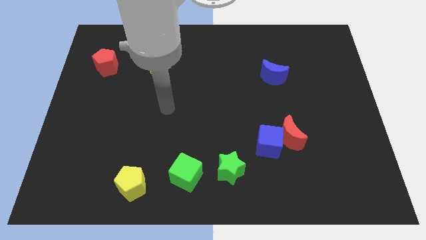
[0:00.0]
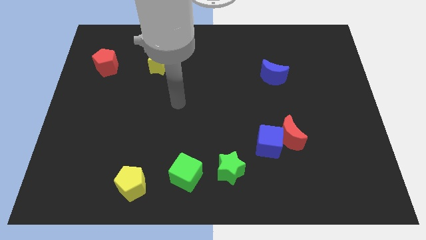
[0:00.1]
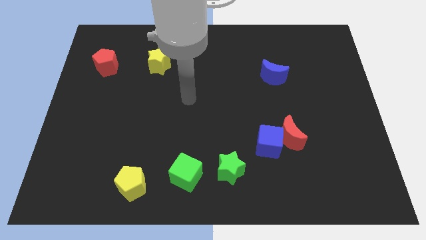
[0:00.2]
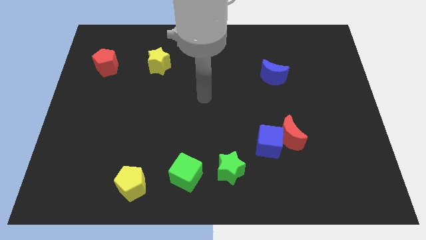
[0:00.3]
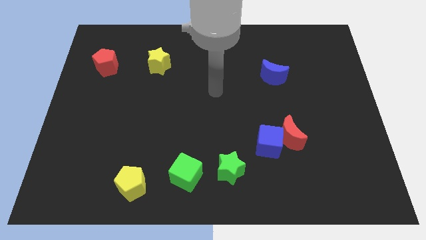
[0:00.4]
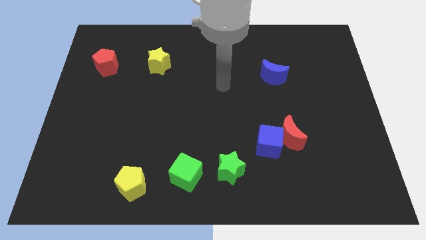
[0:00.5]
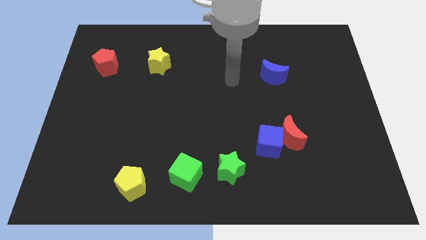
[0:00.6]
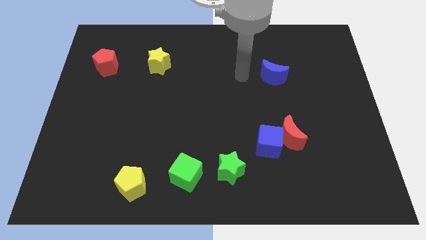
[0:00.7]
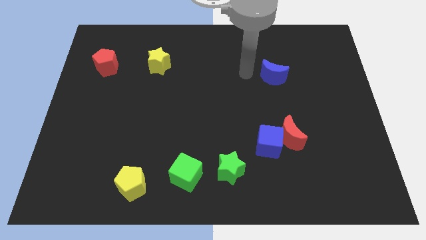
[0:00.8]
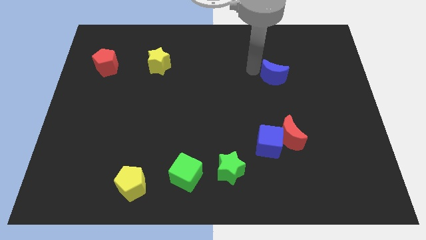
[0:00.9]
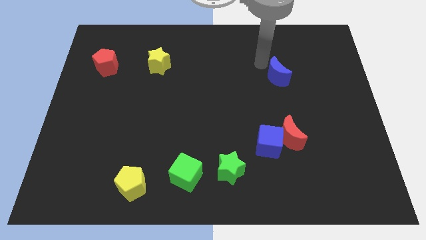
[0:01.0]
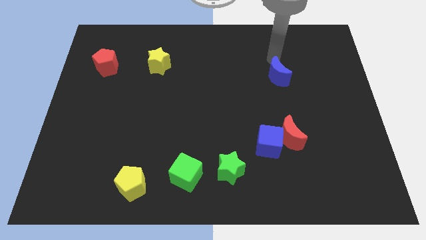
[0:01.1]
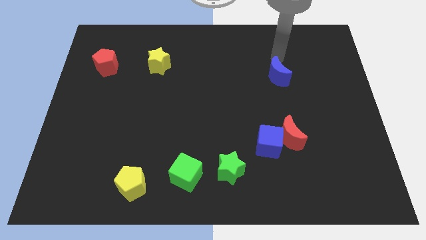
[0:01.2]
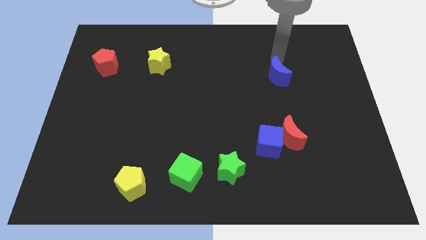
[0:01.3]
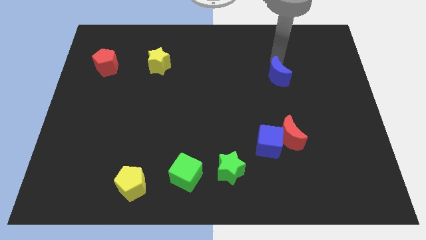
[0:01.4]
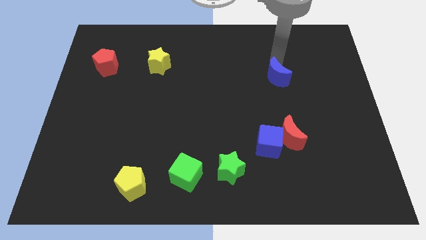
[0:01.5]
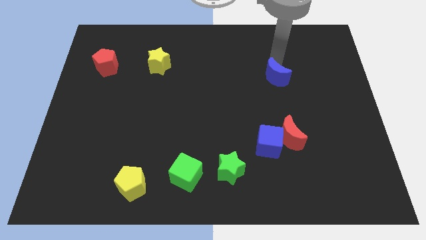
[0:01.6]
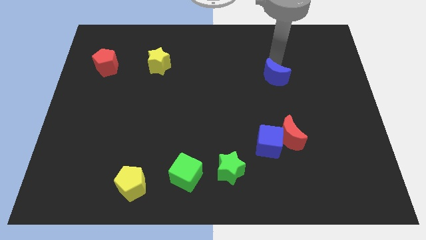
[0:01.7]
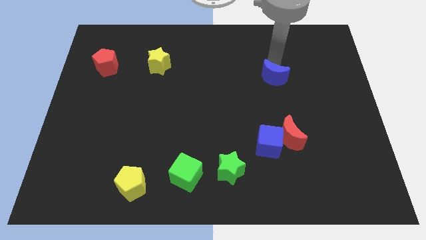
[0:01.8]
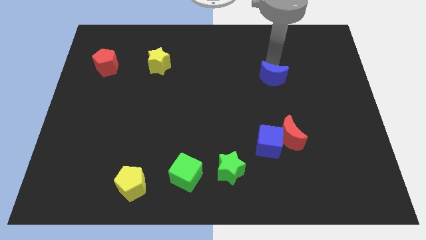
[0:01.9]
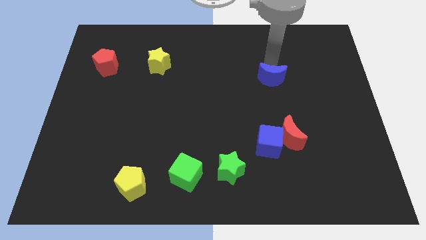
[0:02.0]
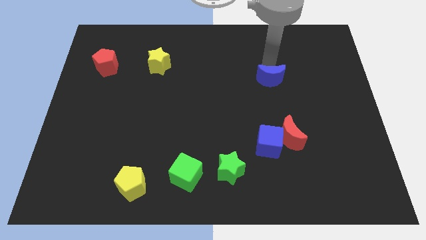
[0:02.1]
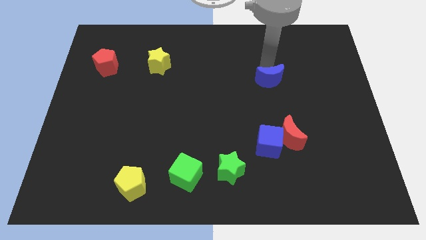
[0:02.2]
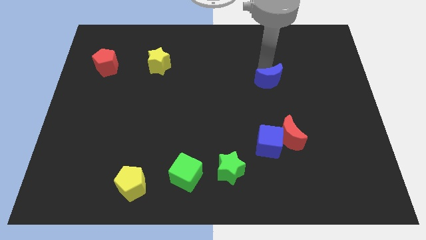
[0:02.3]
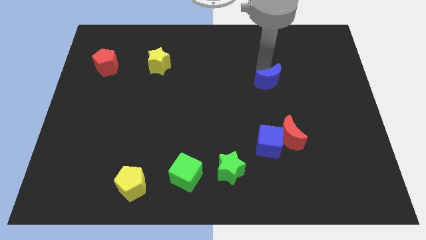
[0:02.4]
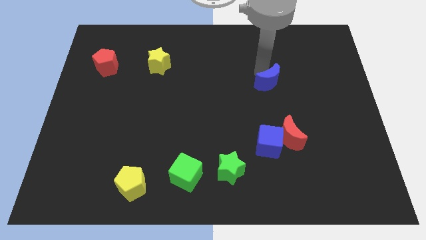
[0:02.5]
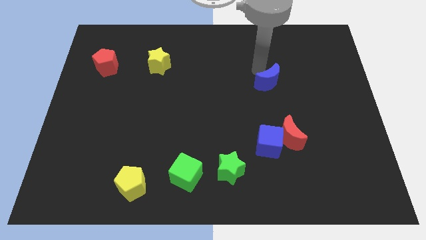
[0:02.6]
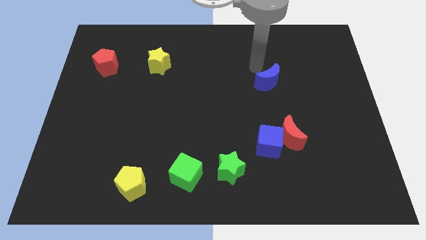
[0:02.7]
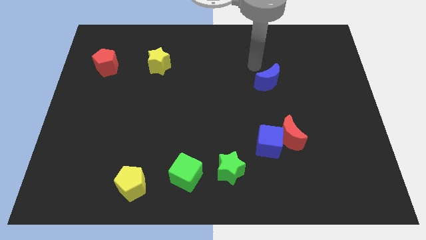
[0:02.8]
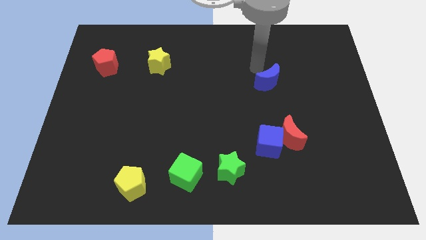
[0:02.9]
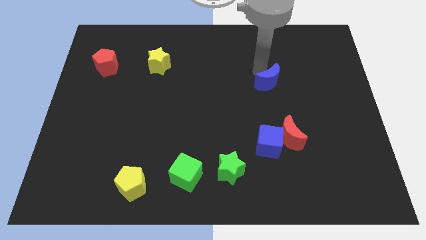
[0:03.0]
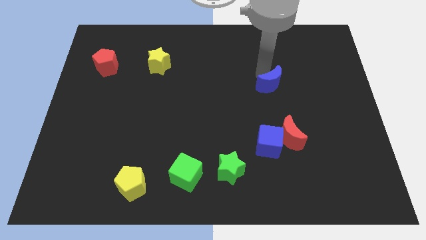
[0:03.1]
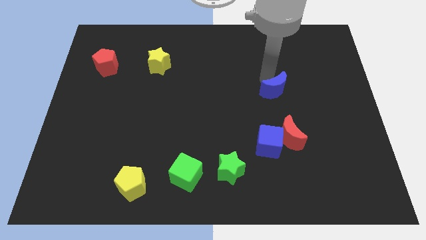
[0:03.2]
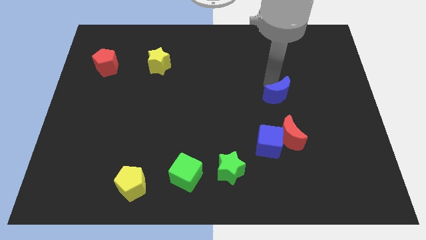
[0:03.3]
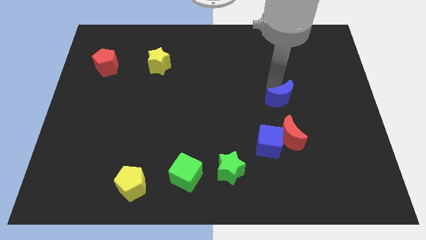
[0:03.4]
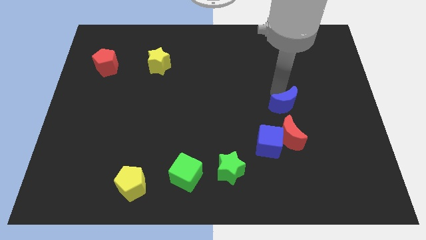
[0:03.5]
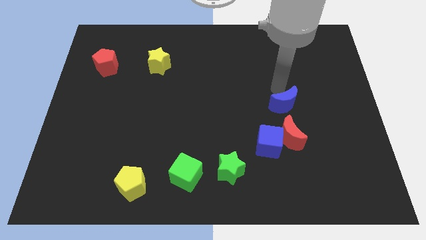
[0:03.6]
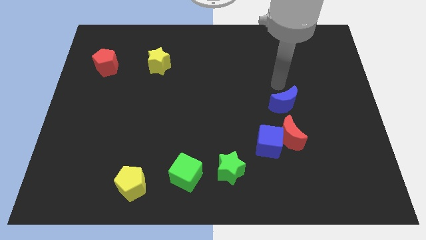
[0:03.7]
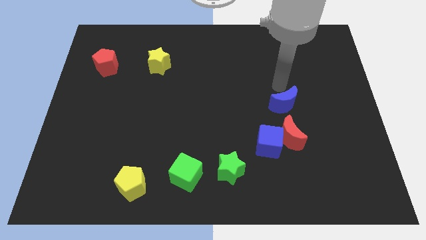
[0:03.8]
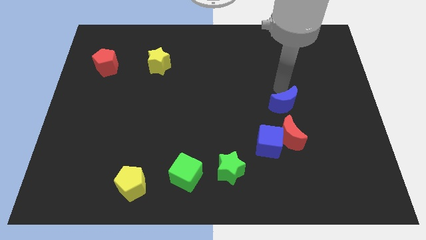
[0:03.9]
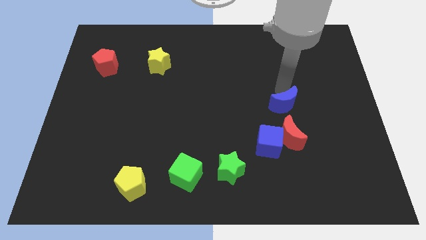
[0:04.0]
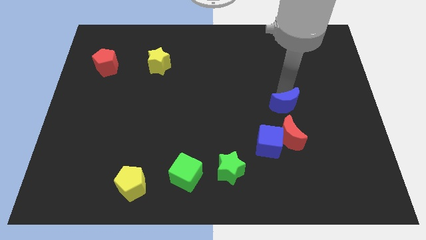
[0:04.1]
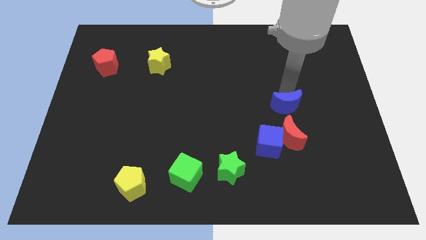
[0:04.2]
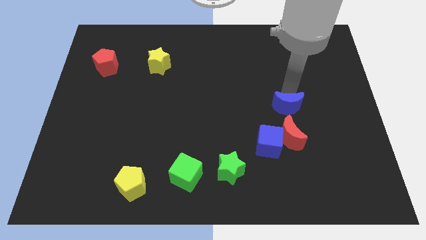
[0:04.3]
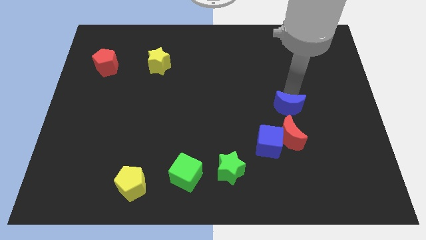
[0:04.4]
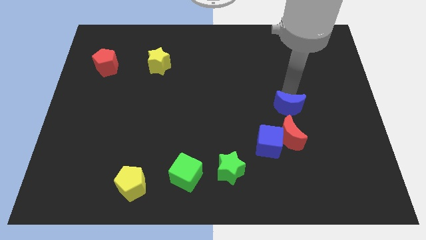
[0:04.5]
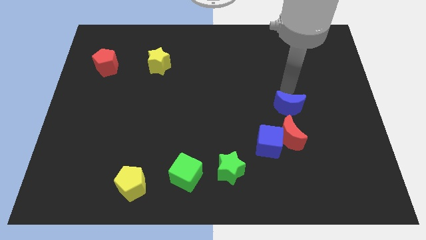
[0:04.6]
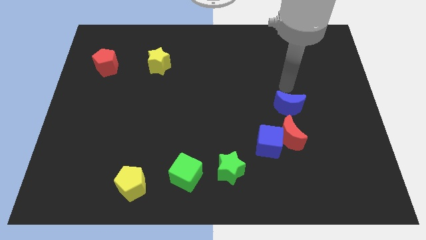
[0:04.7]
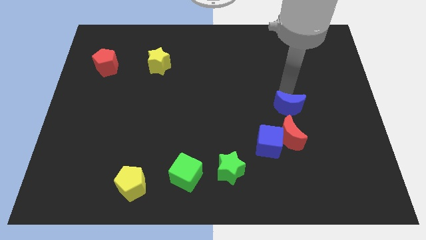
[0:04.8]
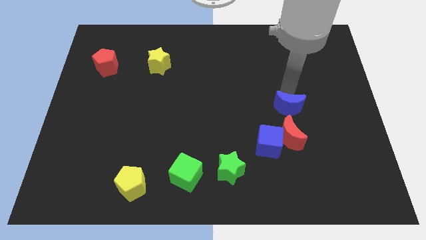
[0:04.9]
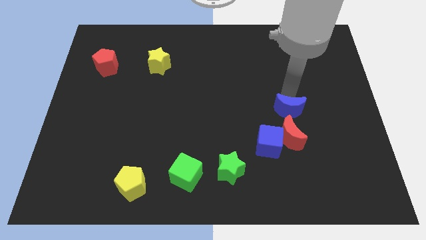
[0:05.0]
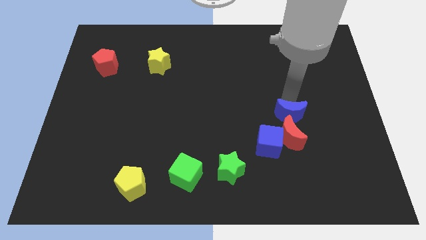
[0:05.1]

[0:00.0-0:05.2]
move the blue moon next to the red moon

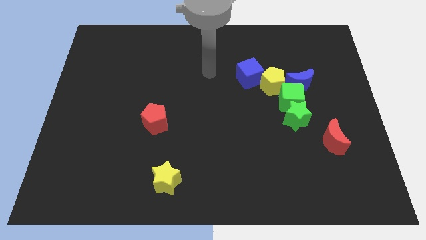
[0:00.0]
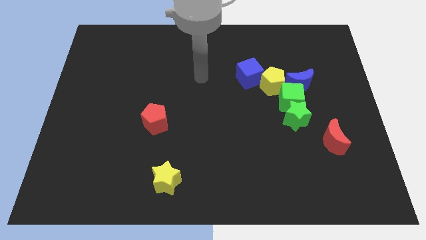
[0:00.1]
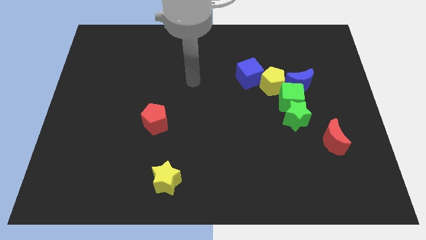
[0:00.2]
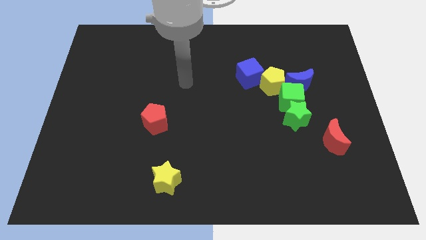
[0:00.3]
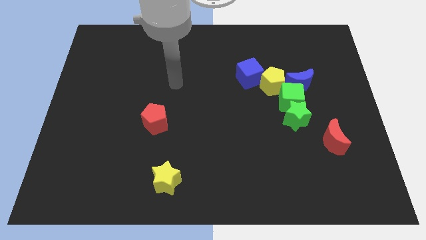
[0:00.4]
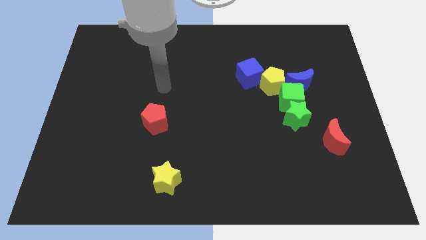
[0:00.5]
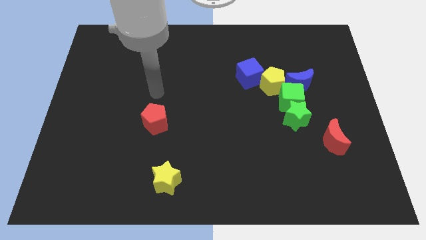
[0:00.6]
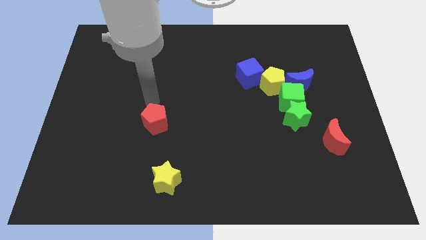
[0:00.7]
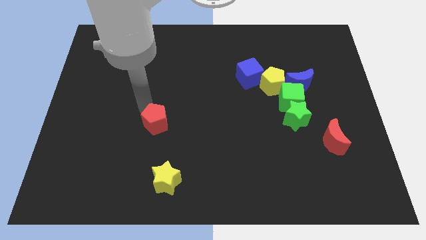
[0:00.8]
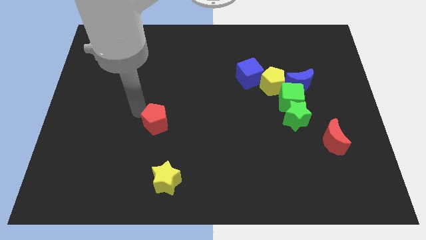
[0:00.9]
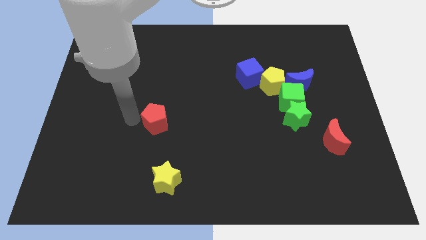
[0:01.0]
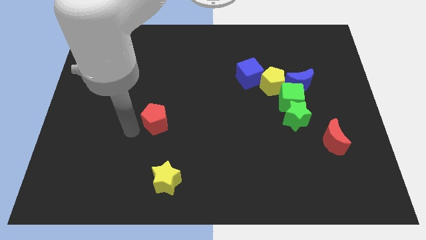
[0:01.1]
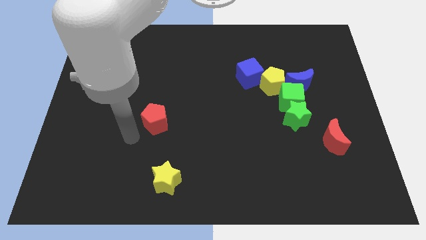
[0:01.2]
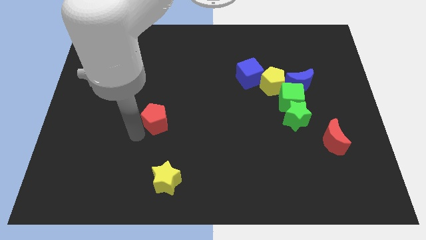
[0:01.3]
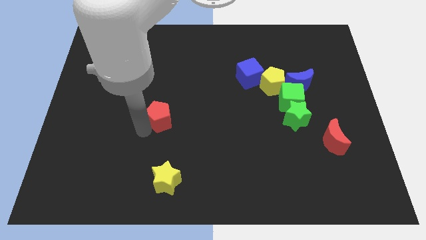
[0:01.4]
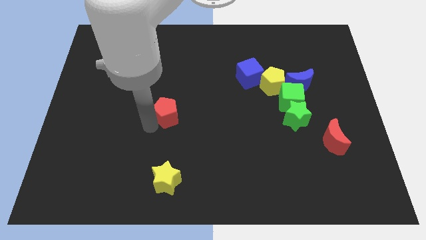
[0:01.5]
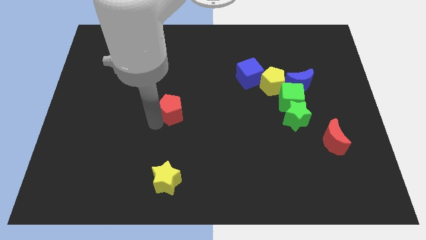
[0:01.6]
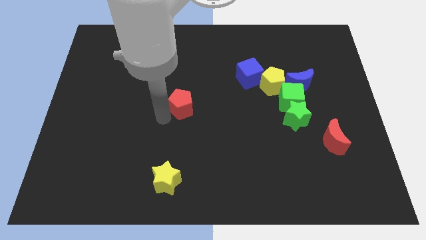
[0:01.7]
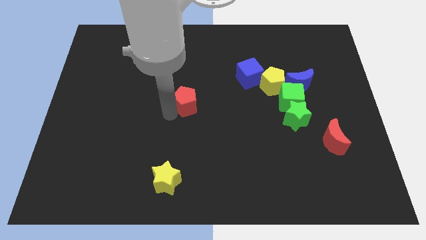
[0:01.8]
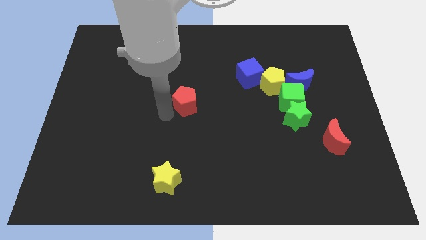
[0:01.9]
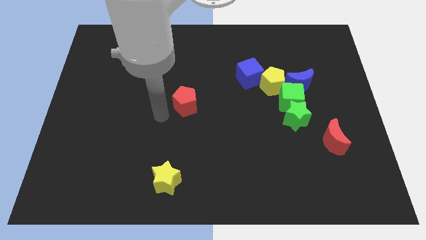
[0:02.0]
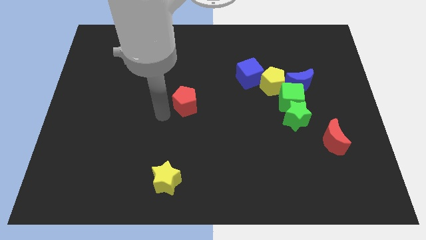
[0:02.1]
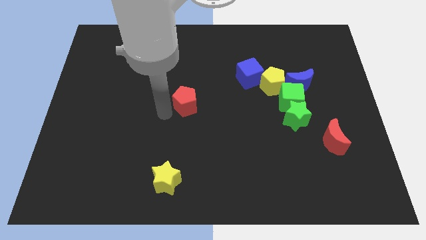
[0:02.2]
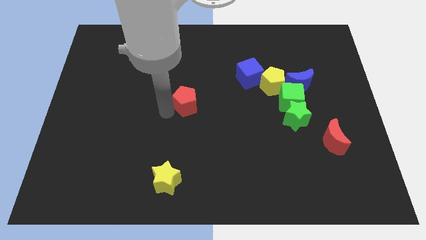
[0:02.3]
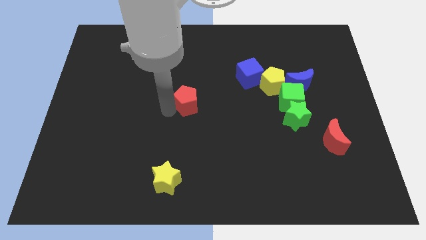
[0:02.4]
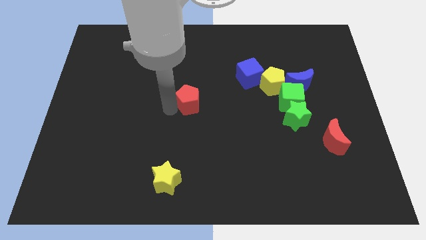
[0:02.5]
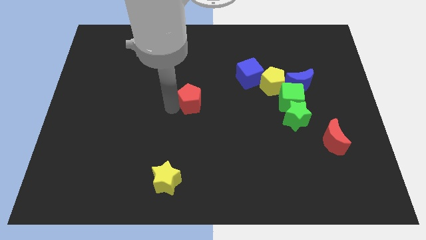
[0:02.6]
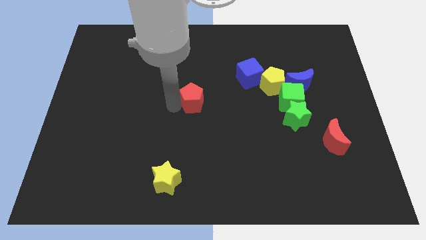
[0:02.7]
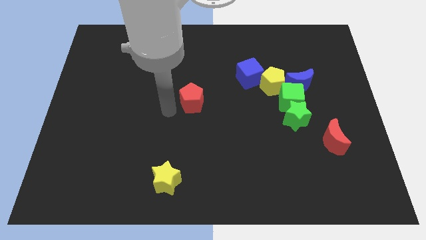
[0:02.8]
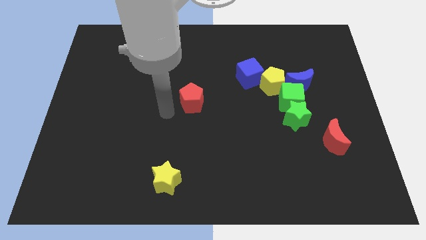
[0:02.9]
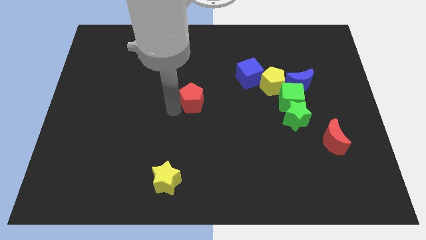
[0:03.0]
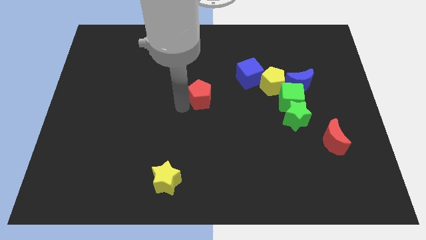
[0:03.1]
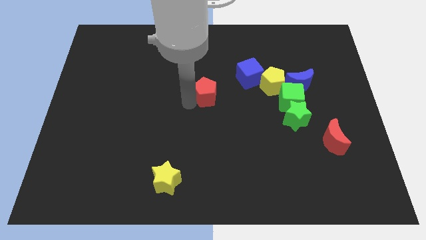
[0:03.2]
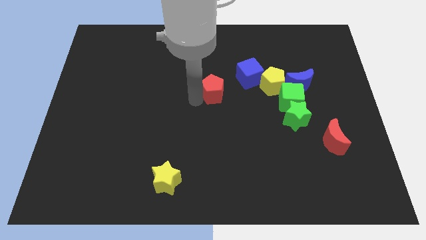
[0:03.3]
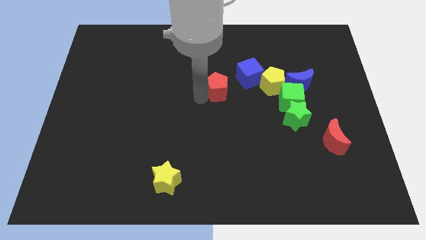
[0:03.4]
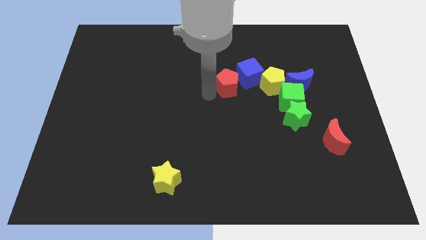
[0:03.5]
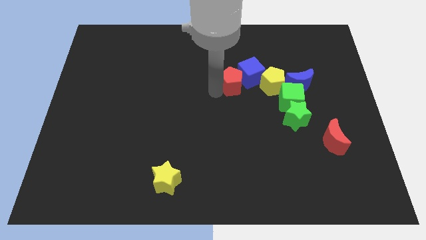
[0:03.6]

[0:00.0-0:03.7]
put the red pentagon next to the blue cube
